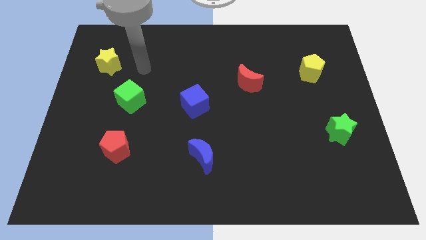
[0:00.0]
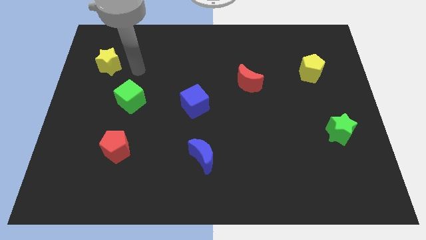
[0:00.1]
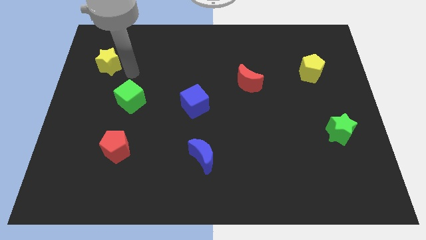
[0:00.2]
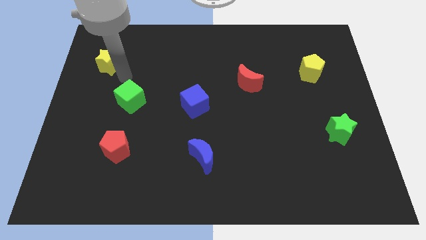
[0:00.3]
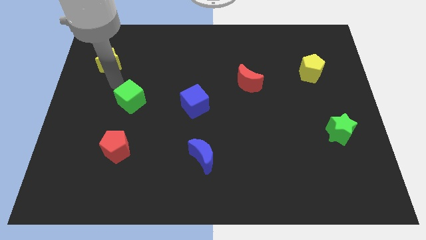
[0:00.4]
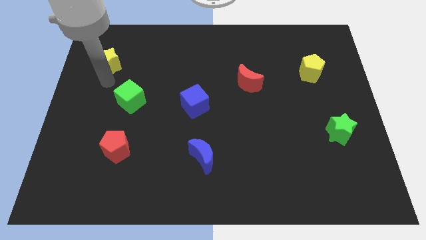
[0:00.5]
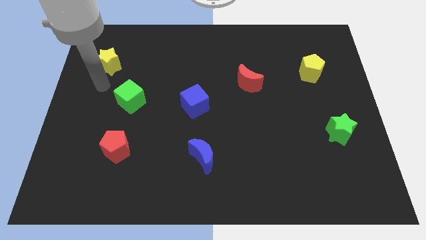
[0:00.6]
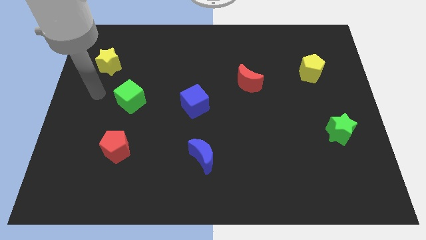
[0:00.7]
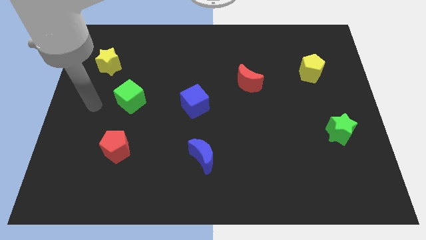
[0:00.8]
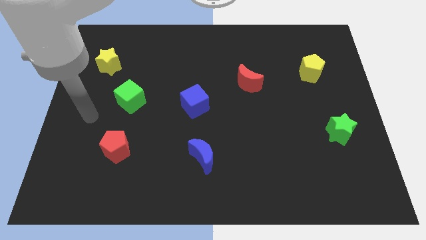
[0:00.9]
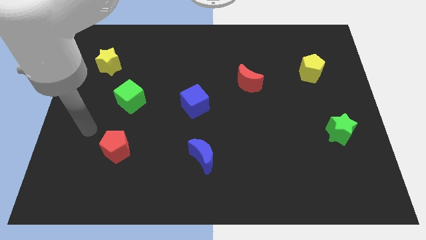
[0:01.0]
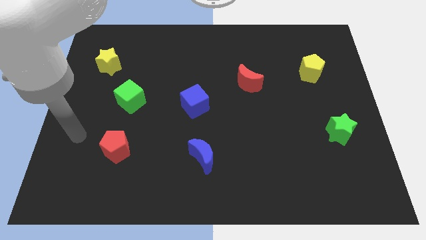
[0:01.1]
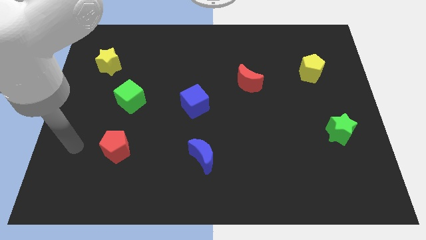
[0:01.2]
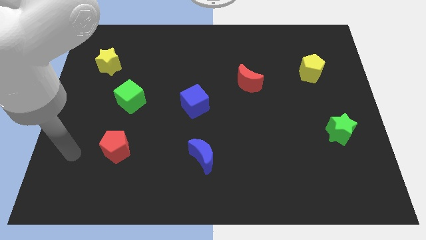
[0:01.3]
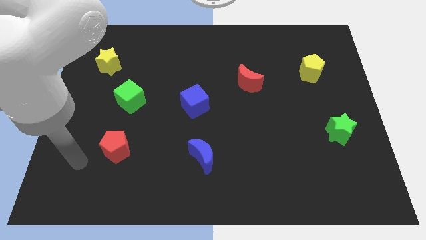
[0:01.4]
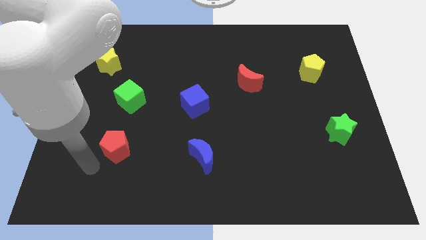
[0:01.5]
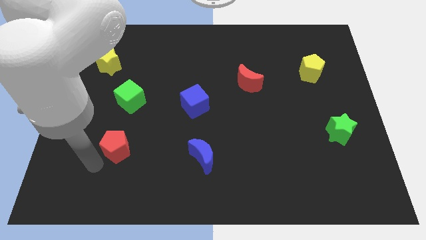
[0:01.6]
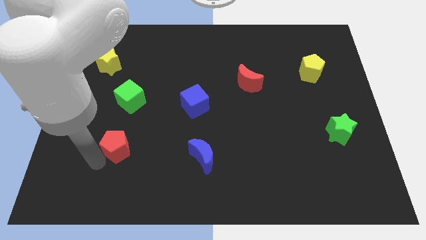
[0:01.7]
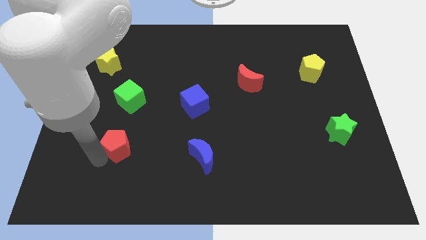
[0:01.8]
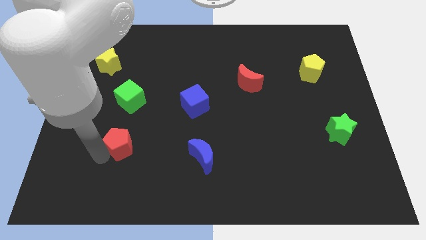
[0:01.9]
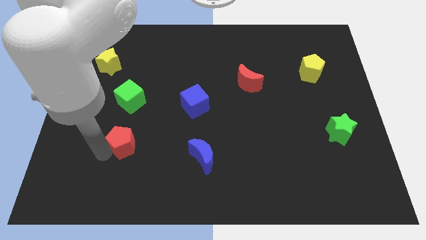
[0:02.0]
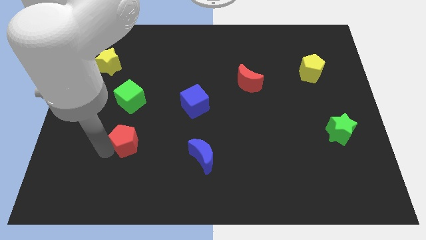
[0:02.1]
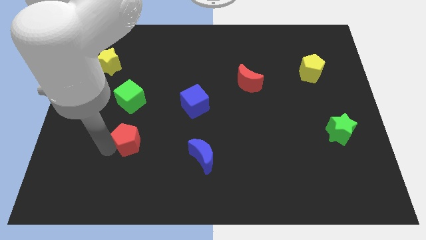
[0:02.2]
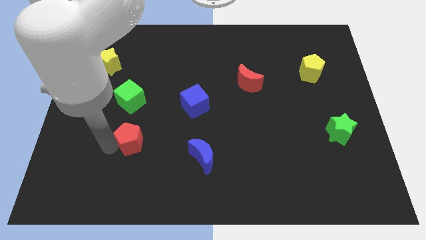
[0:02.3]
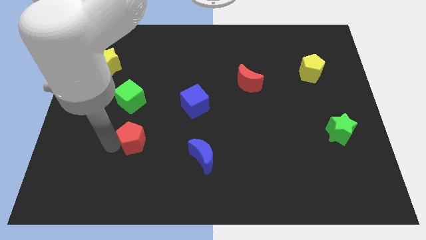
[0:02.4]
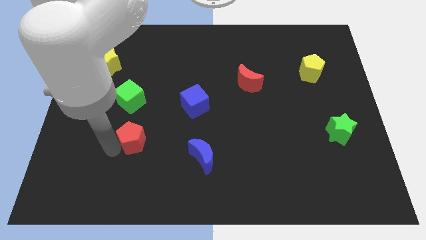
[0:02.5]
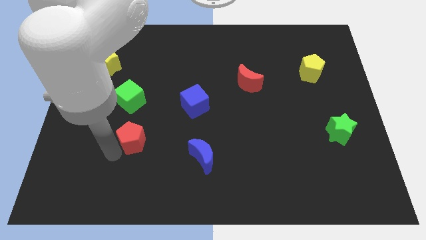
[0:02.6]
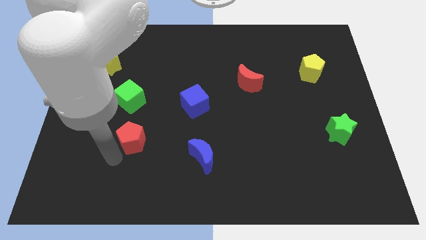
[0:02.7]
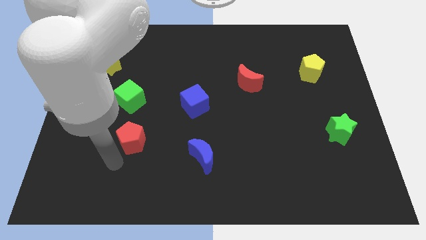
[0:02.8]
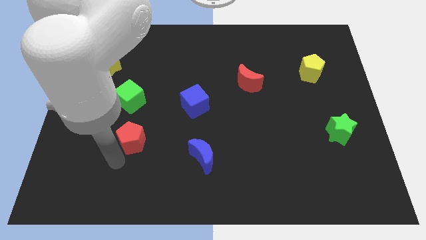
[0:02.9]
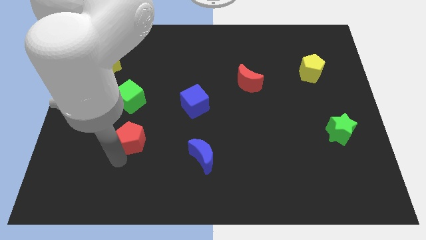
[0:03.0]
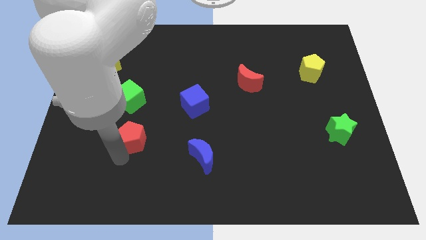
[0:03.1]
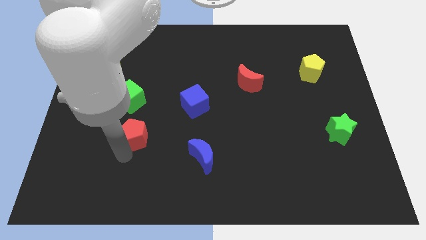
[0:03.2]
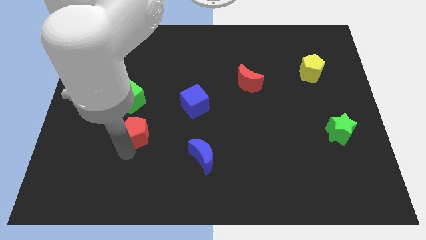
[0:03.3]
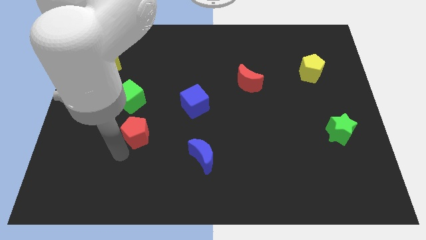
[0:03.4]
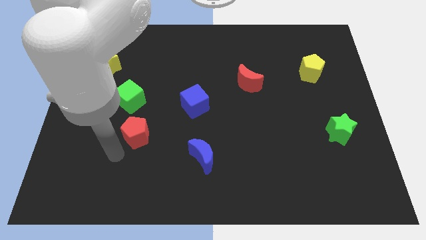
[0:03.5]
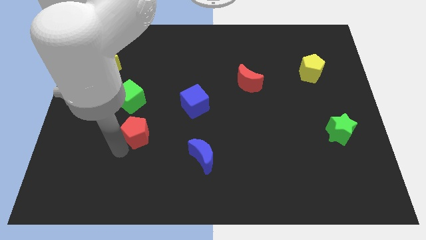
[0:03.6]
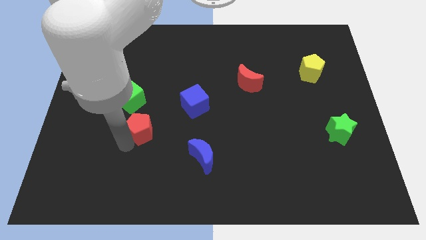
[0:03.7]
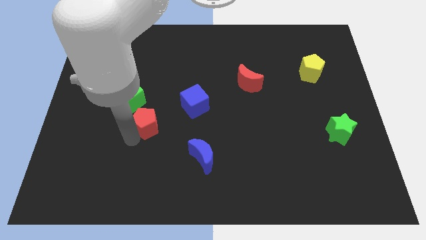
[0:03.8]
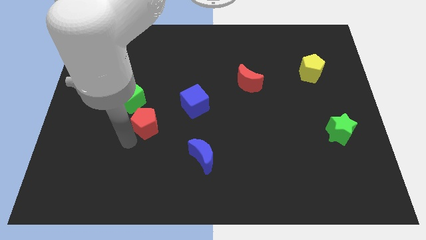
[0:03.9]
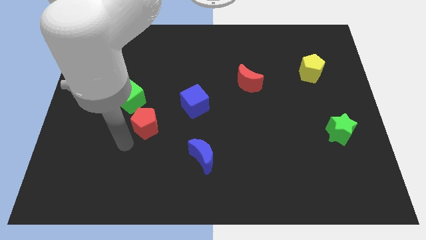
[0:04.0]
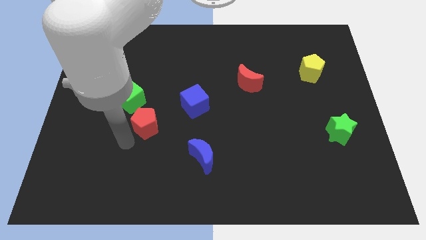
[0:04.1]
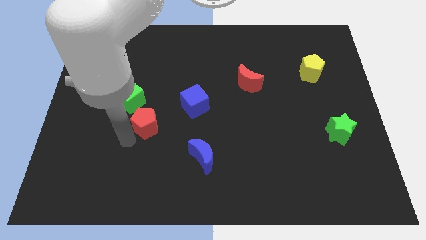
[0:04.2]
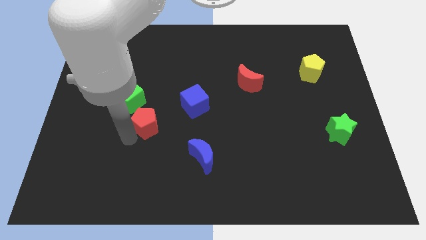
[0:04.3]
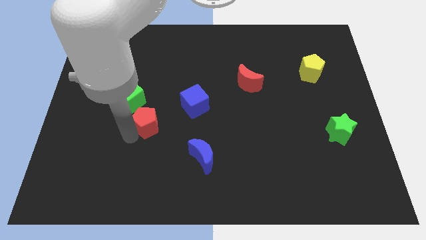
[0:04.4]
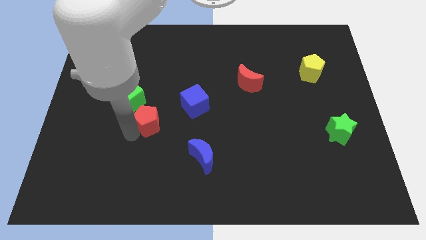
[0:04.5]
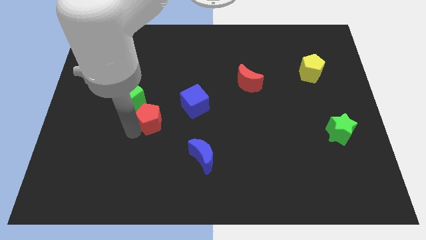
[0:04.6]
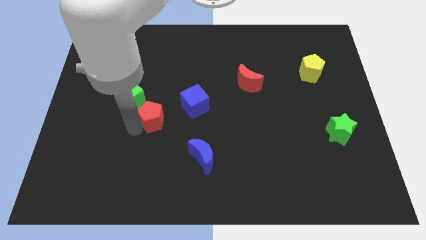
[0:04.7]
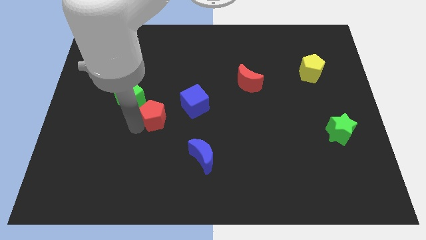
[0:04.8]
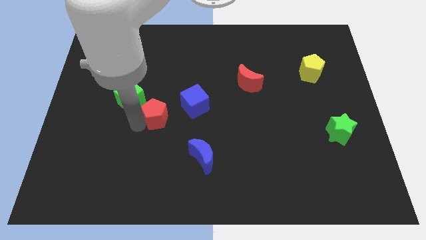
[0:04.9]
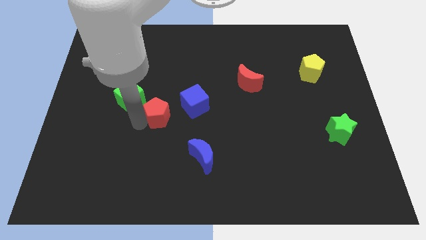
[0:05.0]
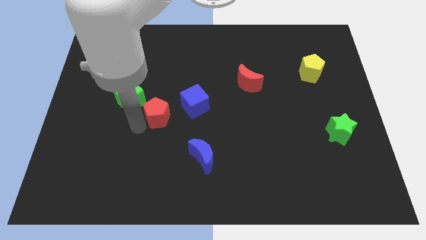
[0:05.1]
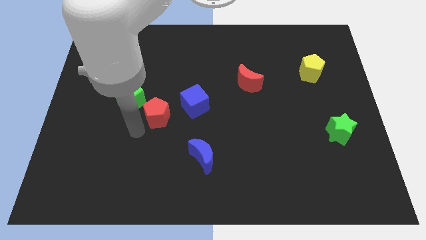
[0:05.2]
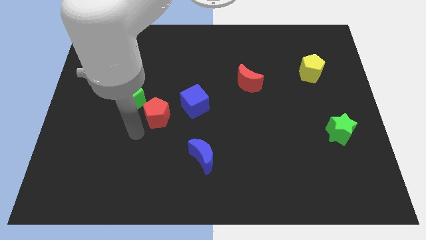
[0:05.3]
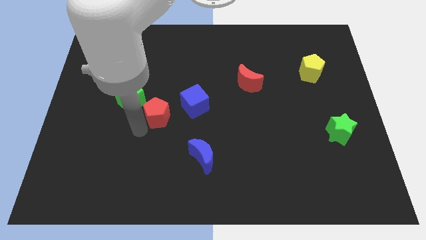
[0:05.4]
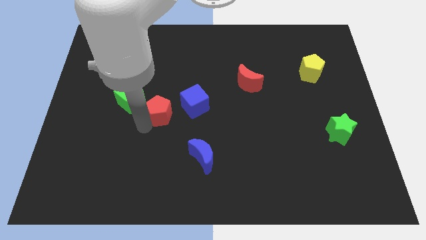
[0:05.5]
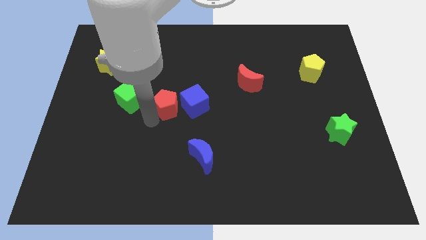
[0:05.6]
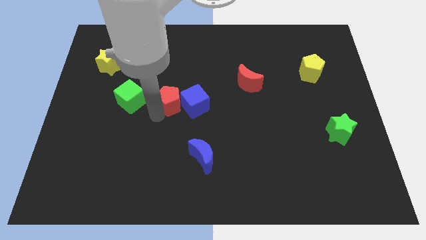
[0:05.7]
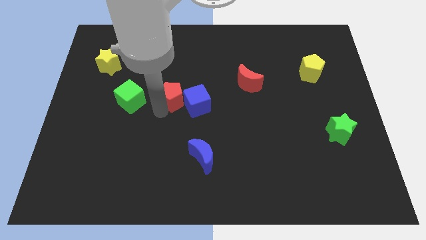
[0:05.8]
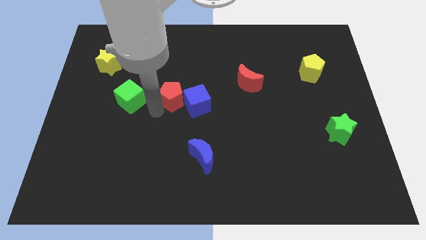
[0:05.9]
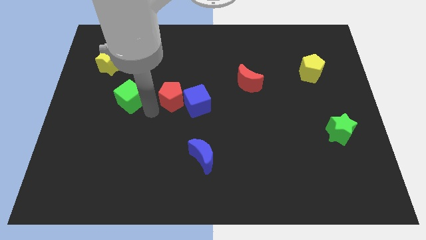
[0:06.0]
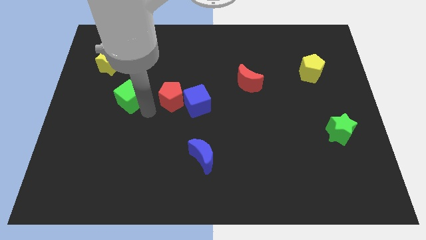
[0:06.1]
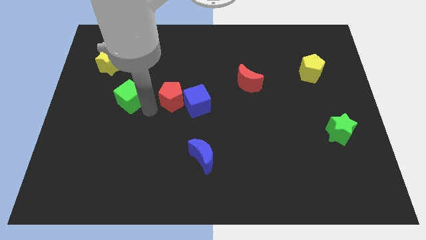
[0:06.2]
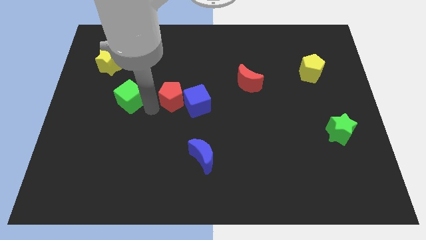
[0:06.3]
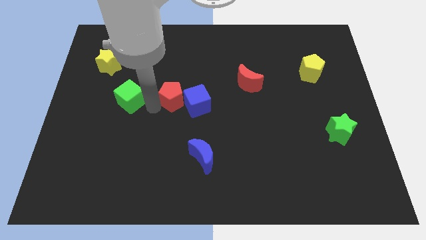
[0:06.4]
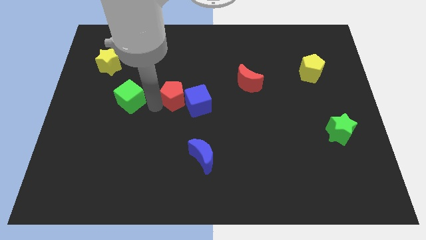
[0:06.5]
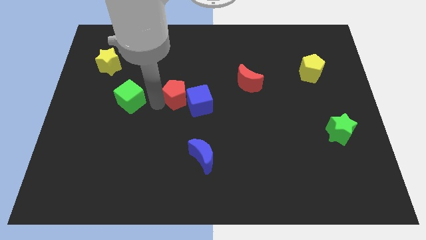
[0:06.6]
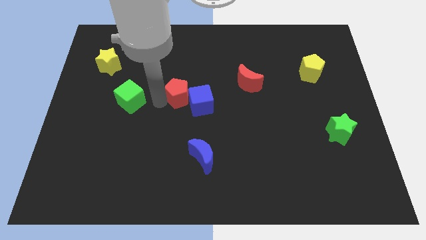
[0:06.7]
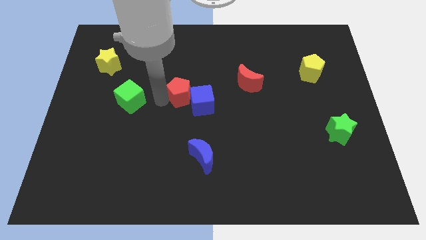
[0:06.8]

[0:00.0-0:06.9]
move the red pentagon diagonally up and right

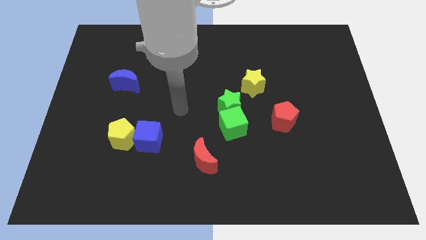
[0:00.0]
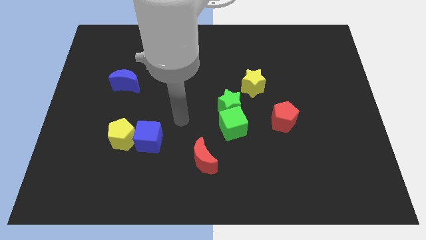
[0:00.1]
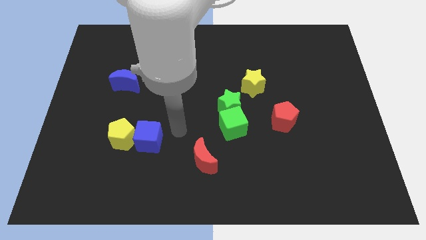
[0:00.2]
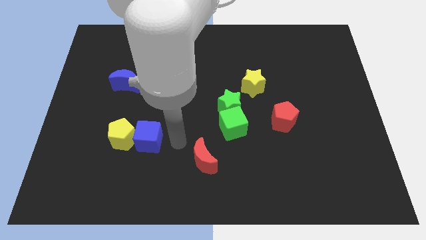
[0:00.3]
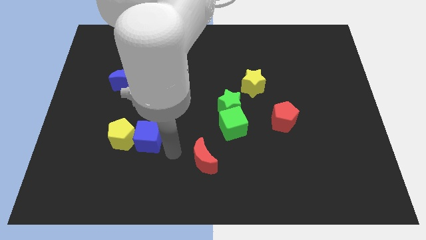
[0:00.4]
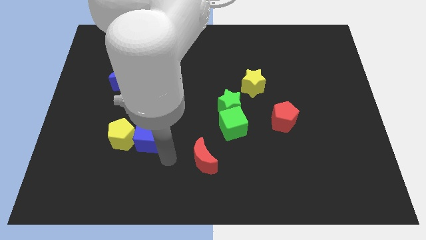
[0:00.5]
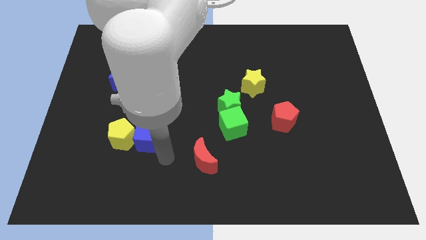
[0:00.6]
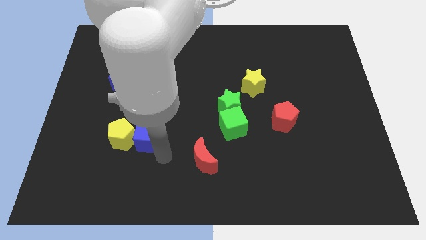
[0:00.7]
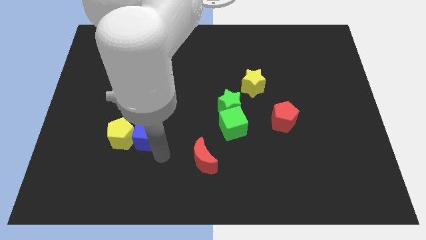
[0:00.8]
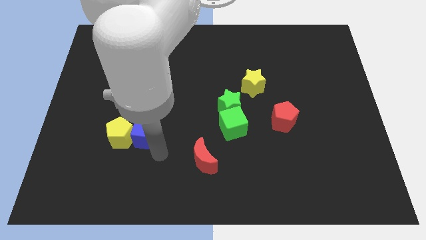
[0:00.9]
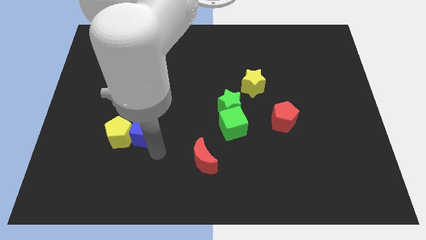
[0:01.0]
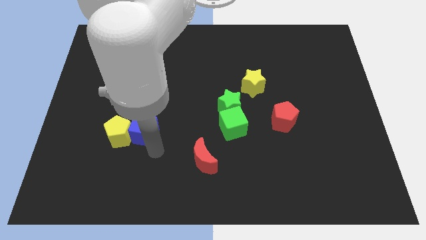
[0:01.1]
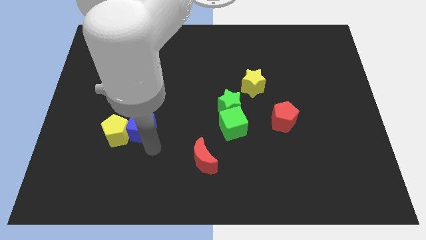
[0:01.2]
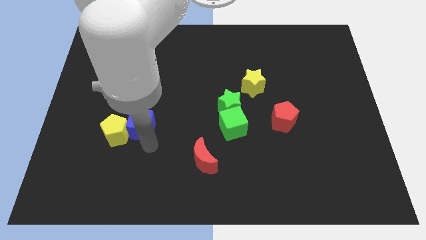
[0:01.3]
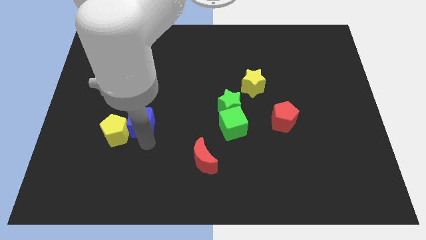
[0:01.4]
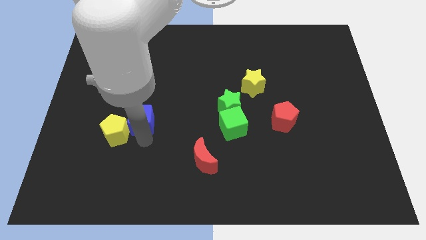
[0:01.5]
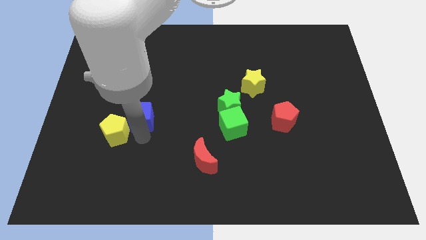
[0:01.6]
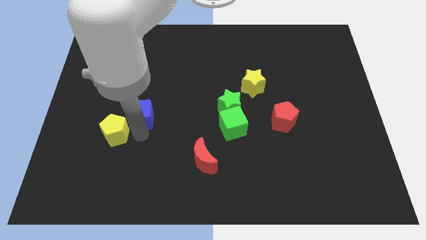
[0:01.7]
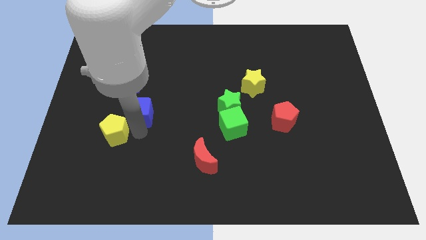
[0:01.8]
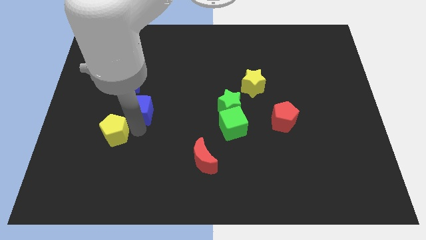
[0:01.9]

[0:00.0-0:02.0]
move the blue cube diagonally up and left somewhat
